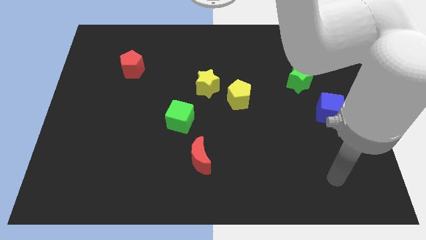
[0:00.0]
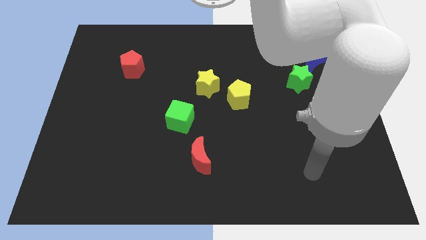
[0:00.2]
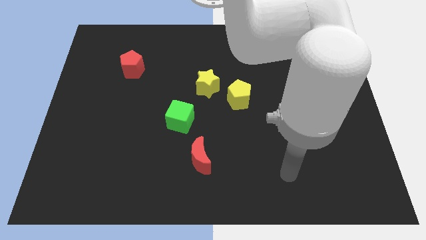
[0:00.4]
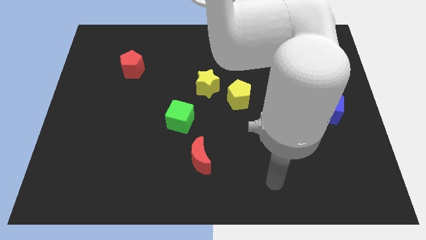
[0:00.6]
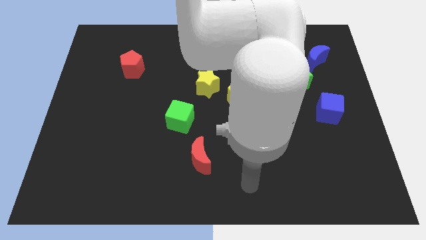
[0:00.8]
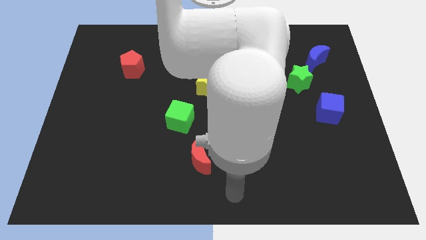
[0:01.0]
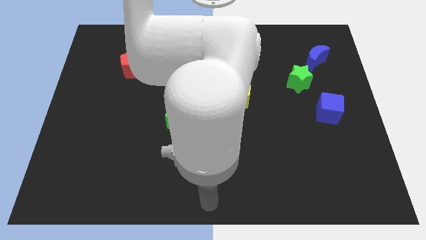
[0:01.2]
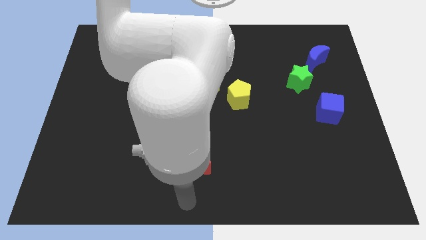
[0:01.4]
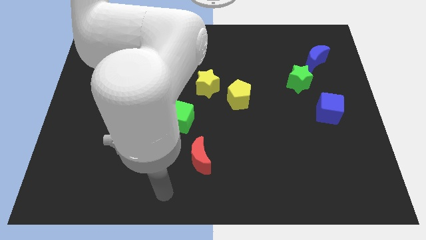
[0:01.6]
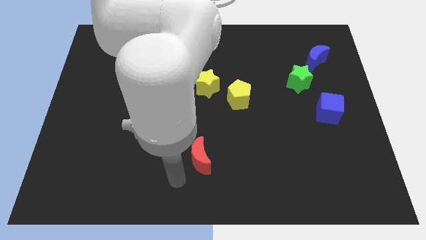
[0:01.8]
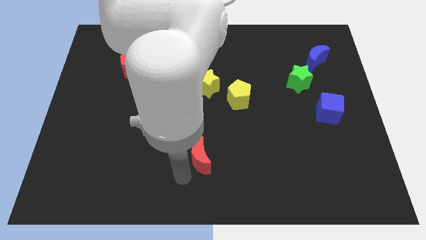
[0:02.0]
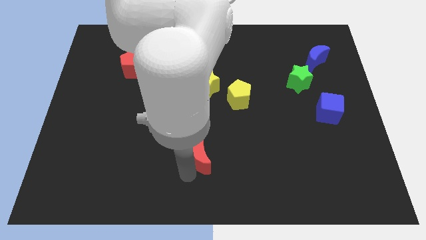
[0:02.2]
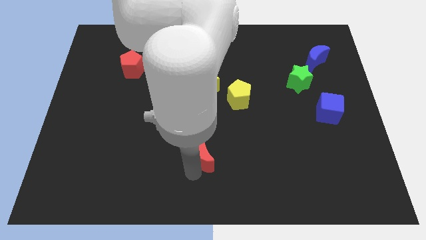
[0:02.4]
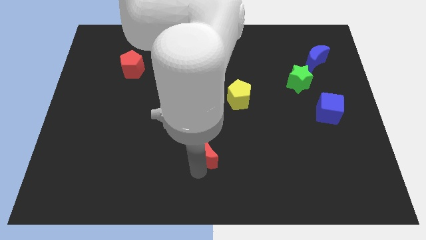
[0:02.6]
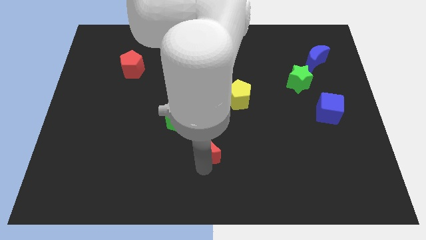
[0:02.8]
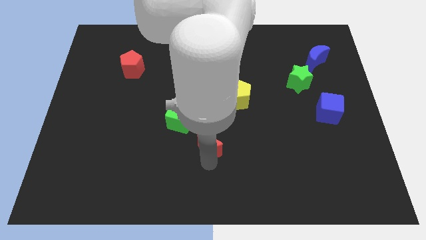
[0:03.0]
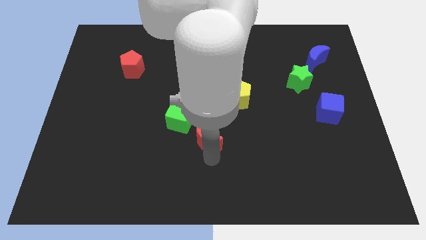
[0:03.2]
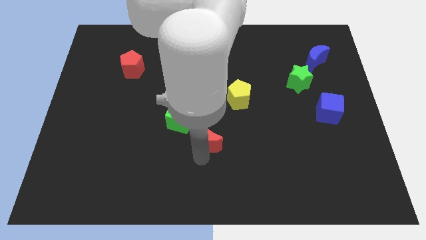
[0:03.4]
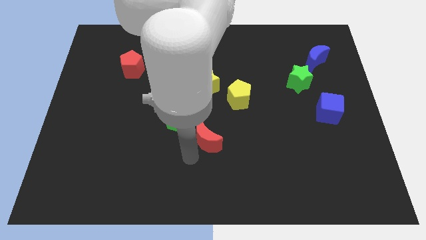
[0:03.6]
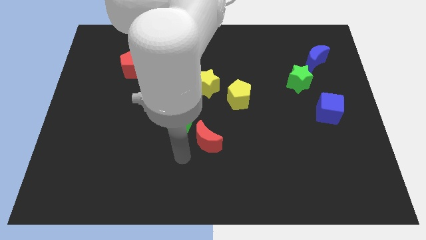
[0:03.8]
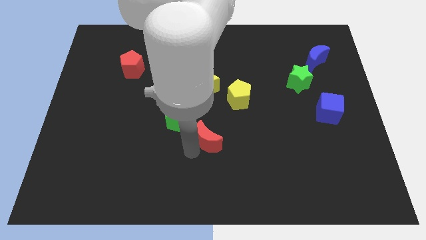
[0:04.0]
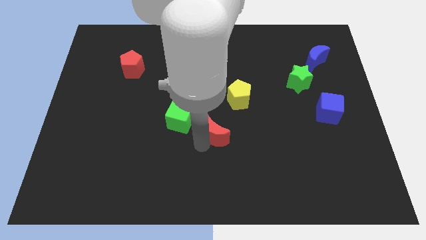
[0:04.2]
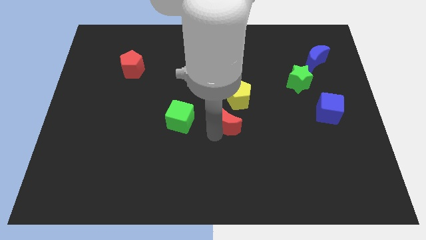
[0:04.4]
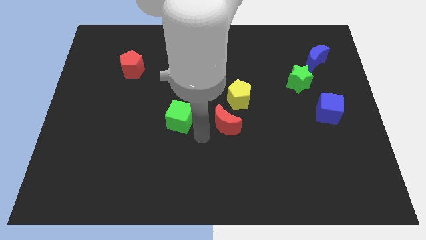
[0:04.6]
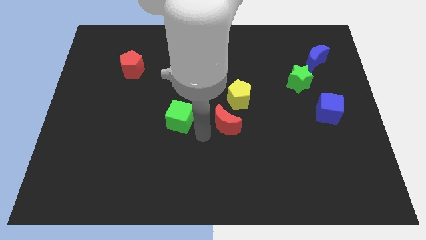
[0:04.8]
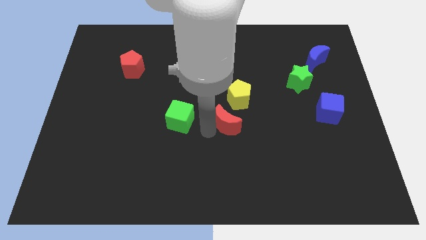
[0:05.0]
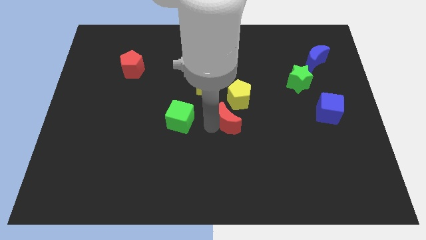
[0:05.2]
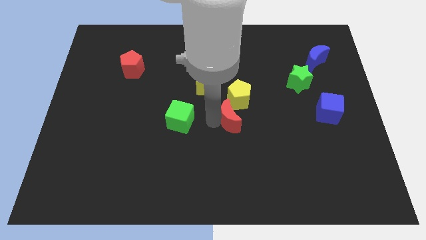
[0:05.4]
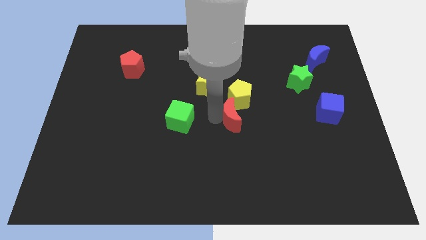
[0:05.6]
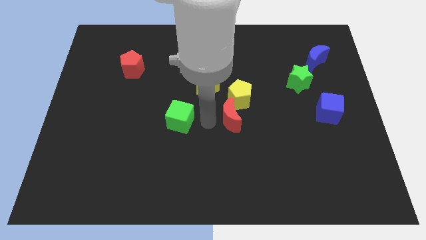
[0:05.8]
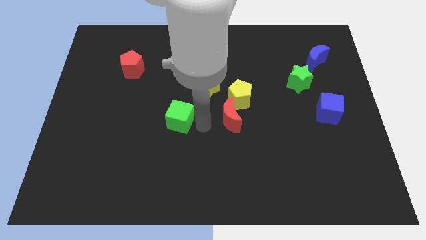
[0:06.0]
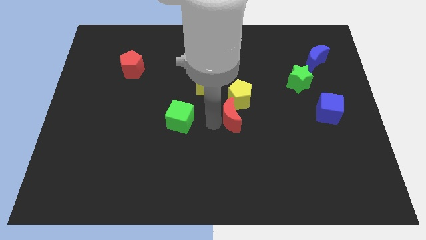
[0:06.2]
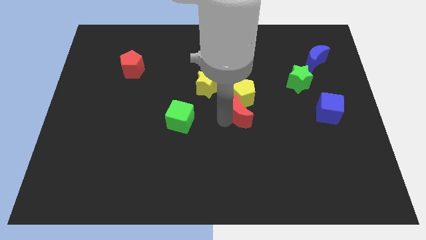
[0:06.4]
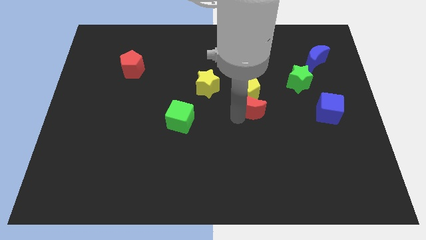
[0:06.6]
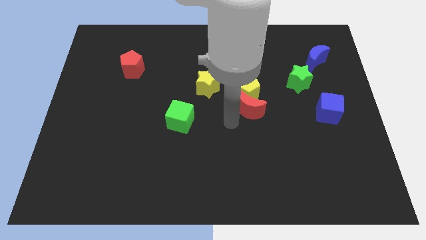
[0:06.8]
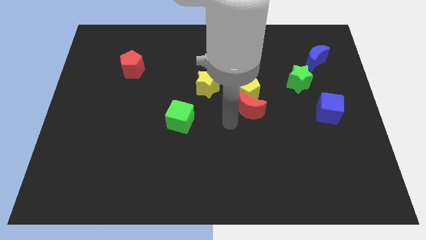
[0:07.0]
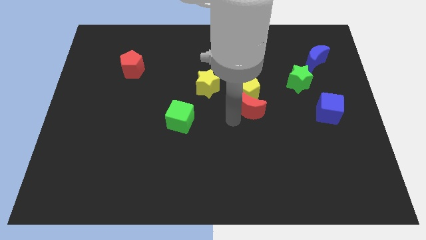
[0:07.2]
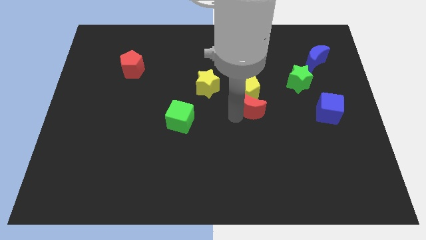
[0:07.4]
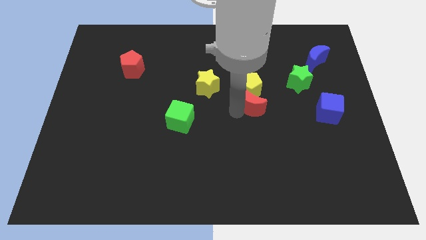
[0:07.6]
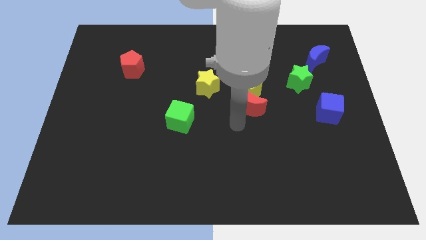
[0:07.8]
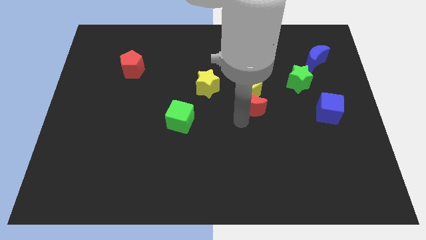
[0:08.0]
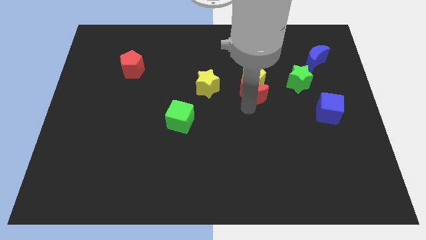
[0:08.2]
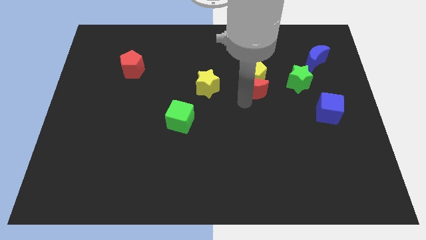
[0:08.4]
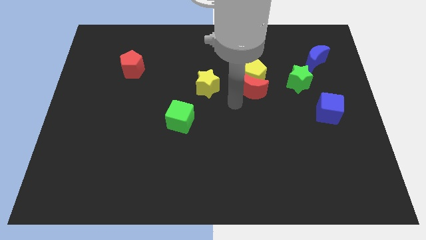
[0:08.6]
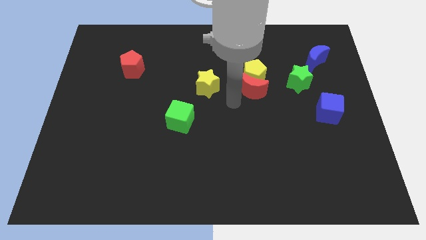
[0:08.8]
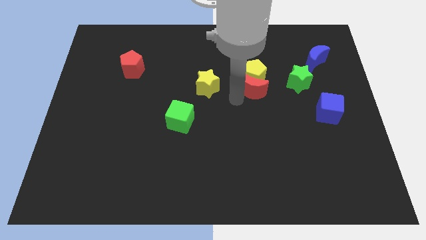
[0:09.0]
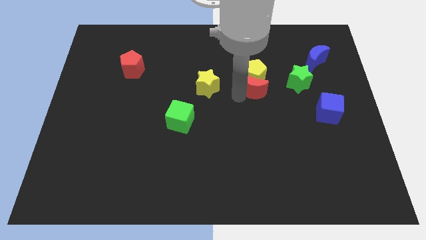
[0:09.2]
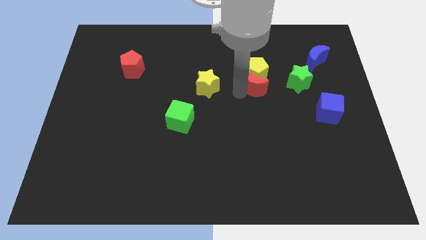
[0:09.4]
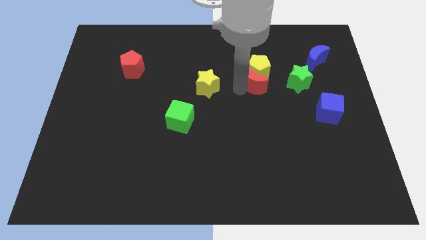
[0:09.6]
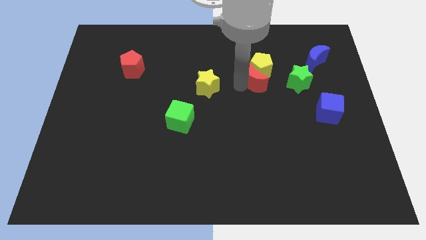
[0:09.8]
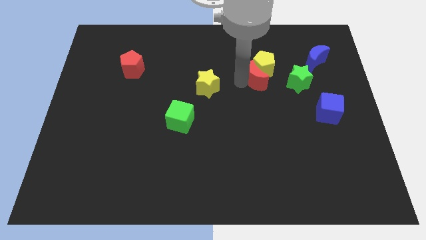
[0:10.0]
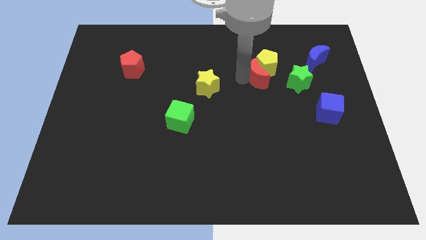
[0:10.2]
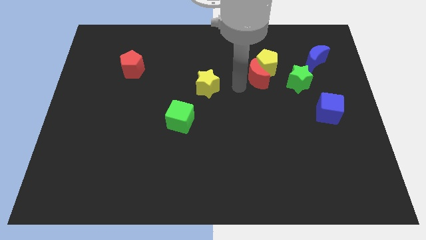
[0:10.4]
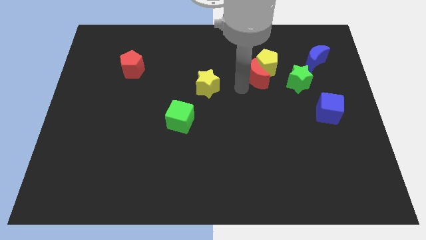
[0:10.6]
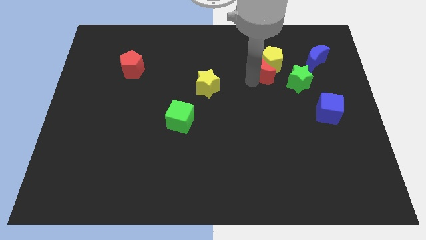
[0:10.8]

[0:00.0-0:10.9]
slide the red moon to the top left of the green star
